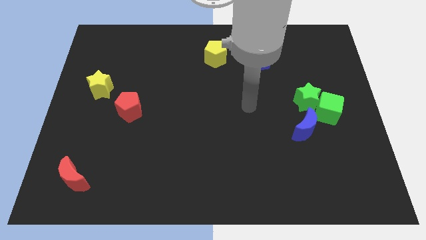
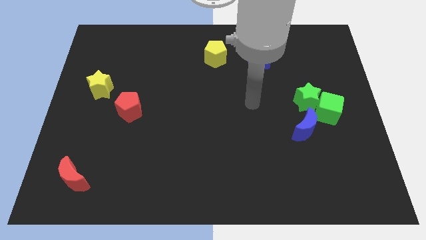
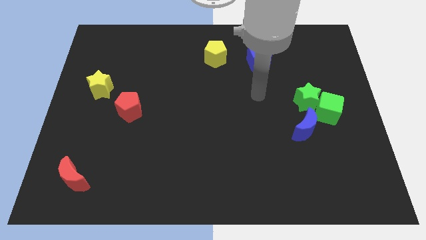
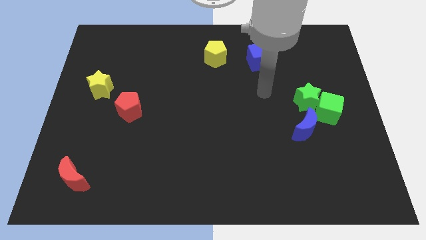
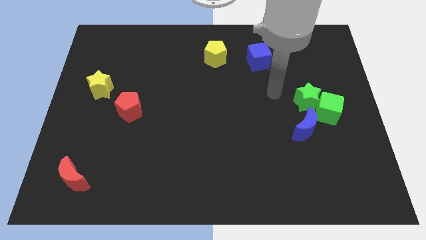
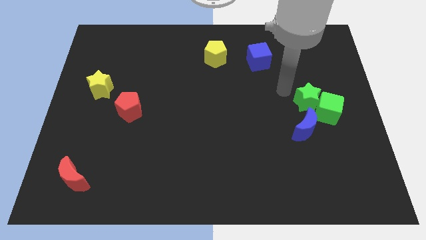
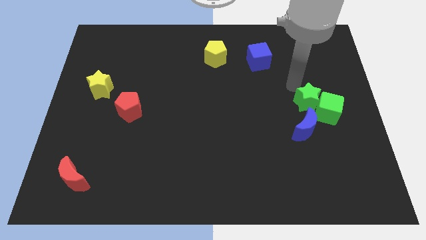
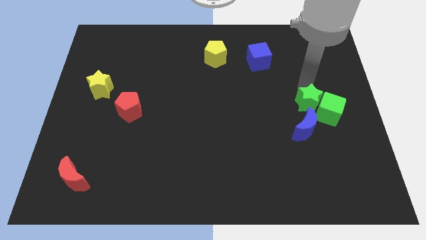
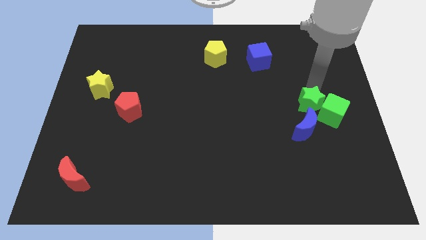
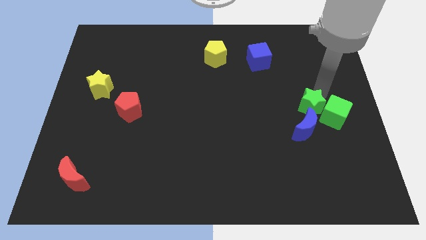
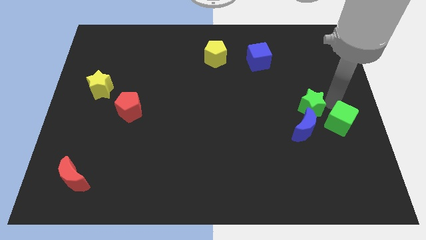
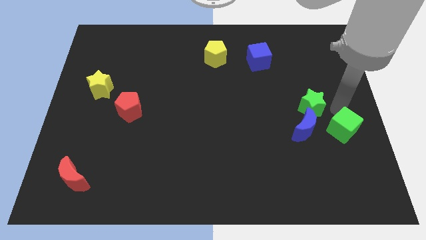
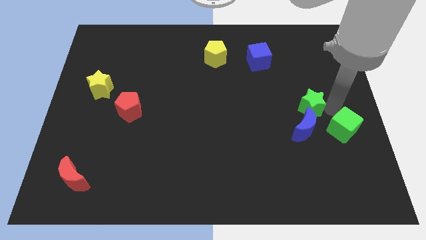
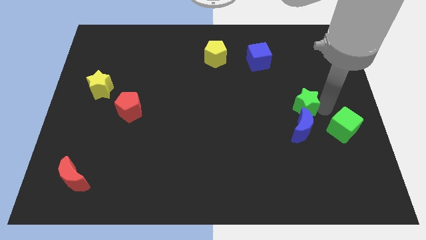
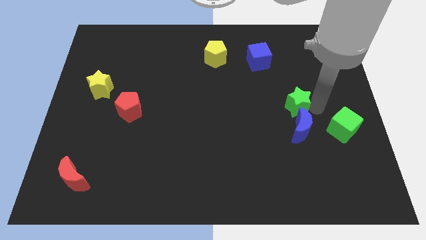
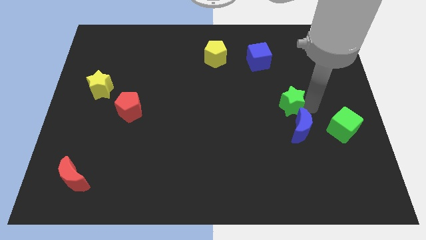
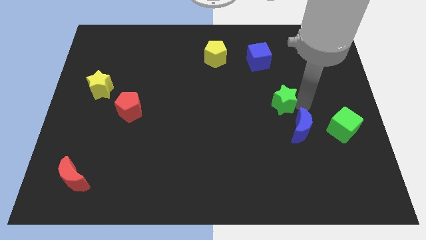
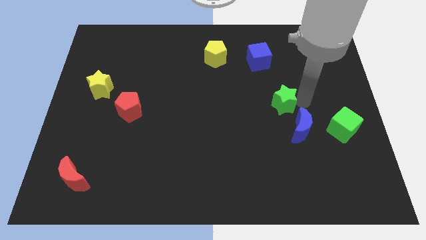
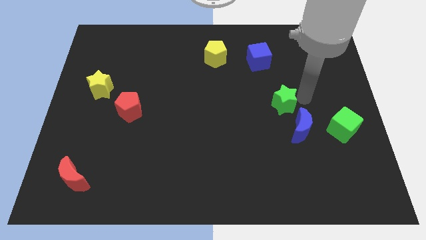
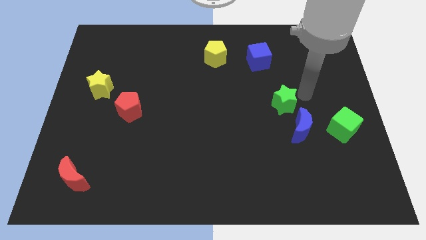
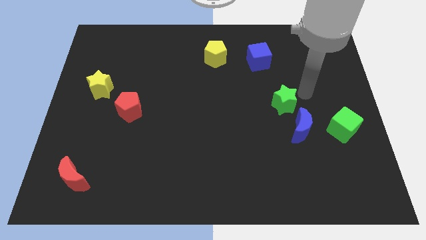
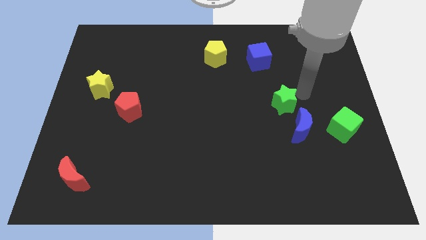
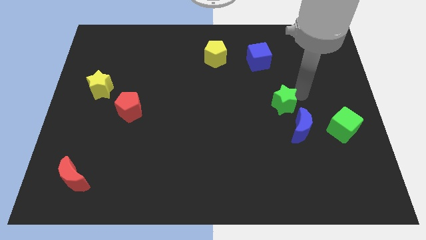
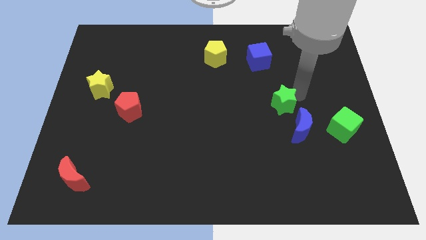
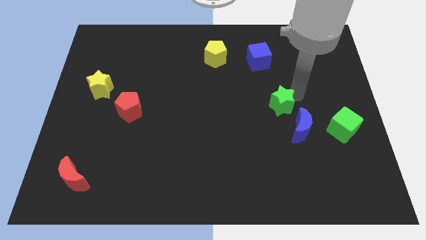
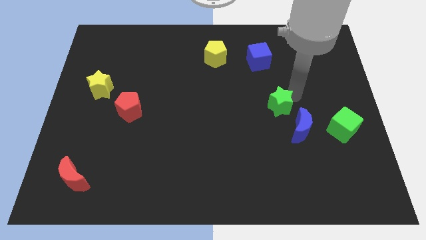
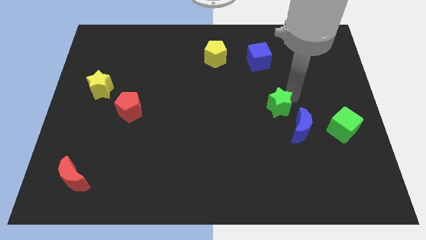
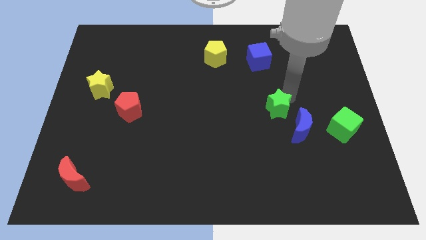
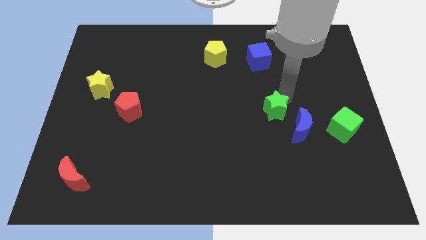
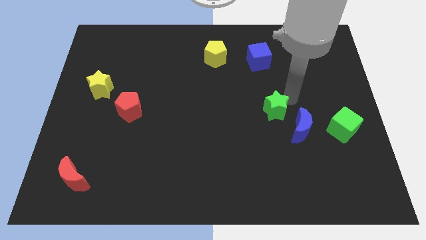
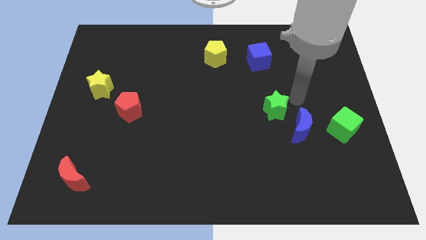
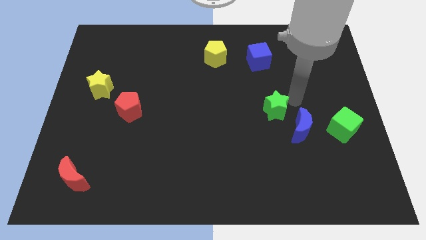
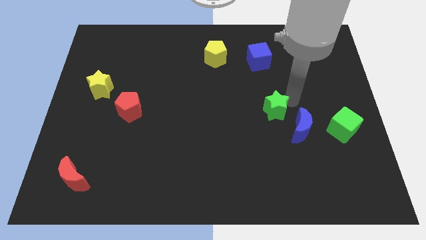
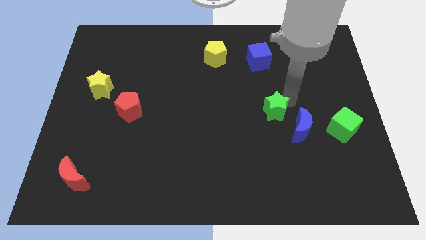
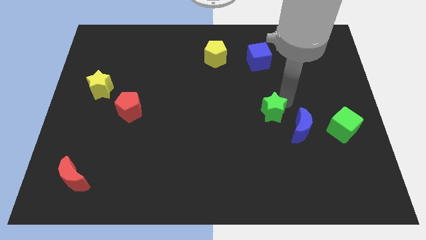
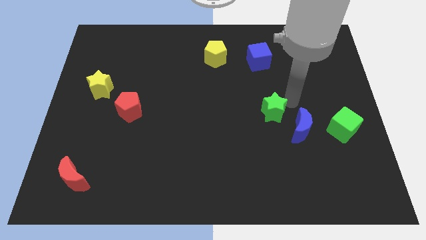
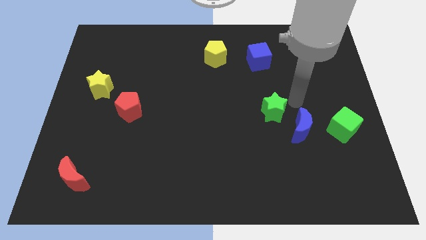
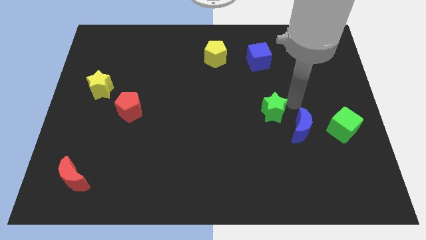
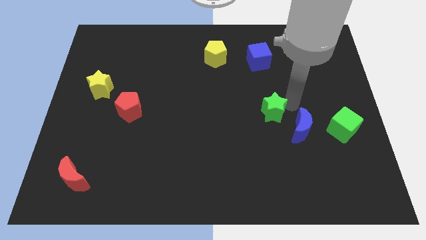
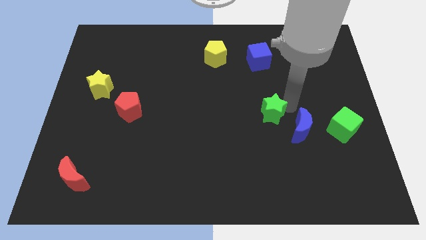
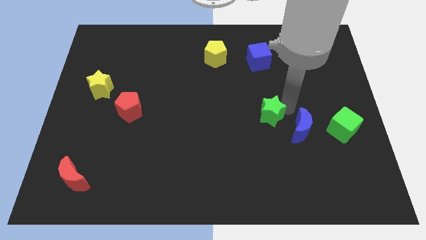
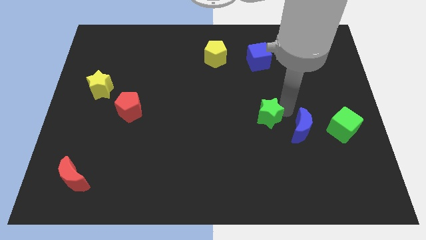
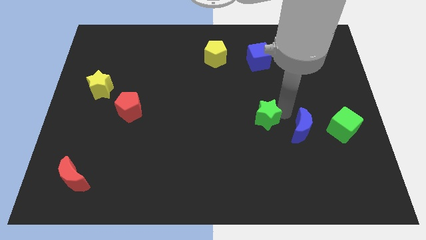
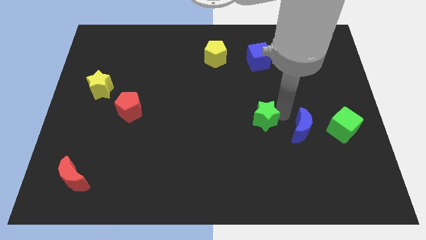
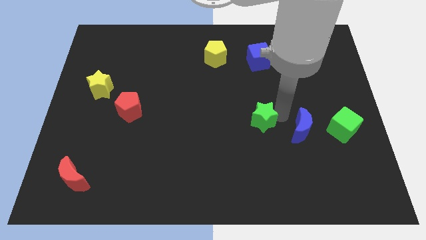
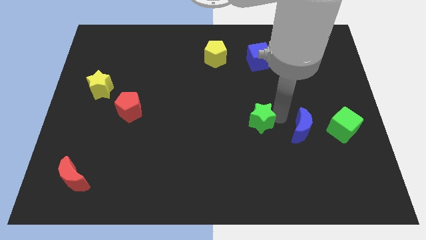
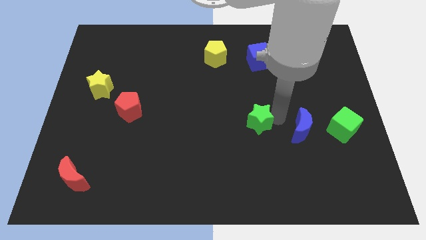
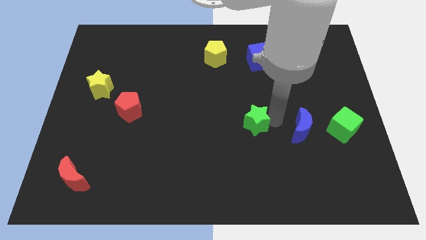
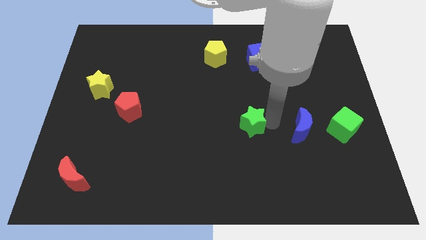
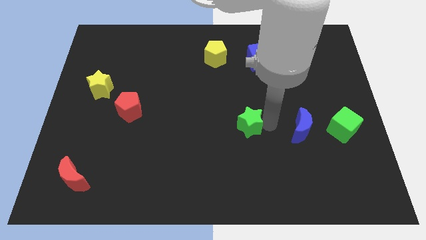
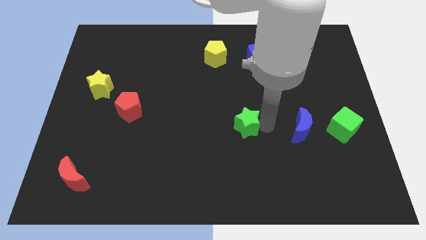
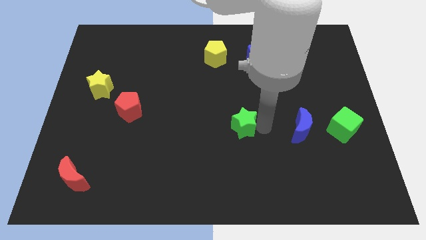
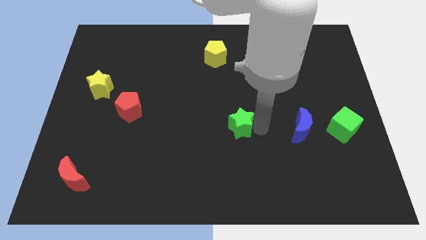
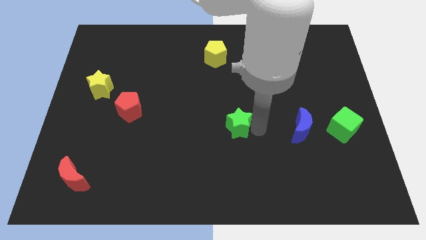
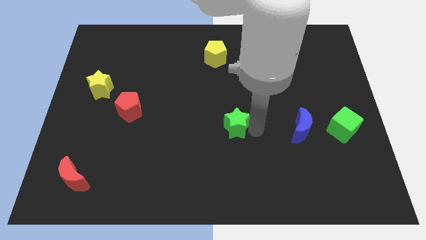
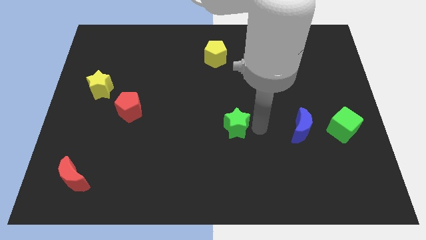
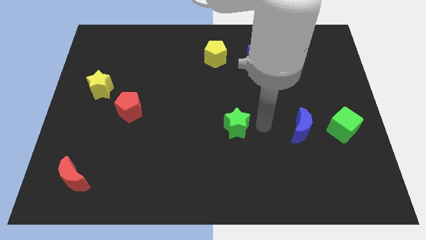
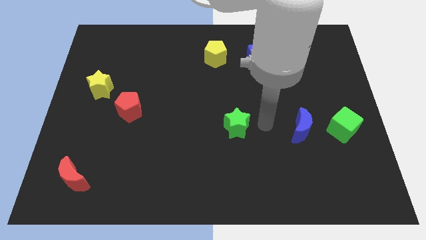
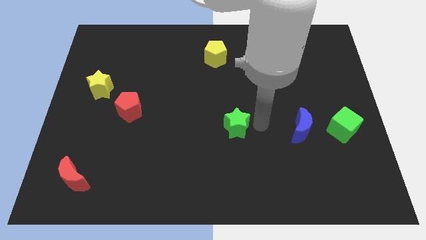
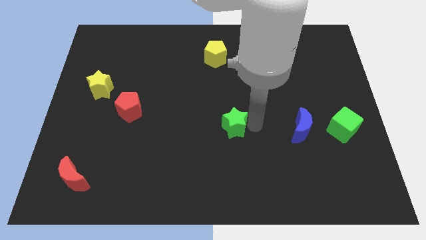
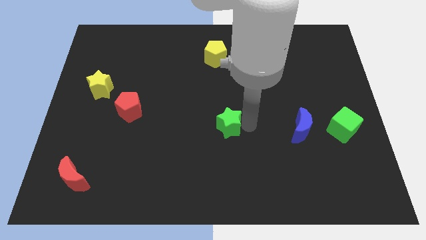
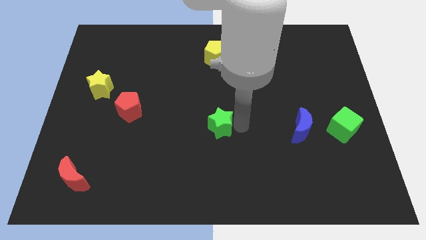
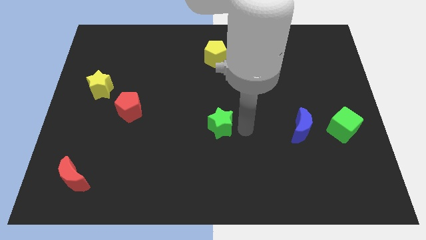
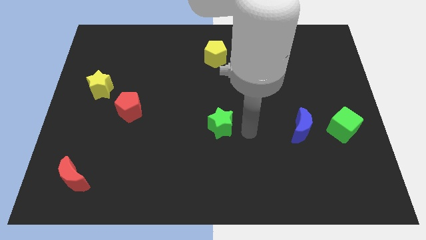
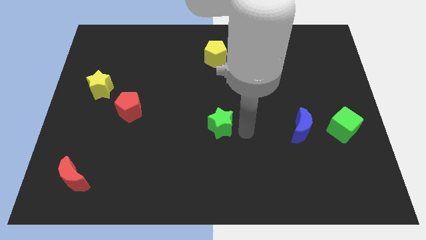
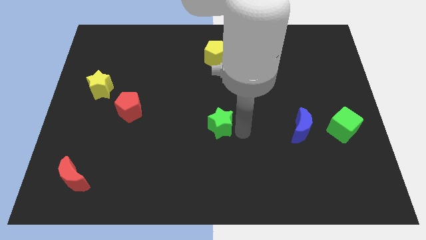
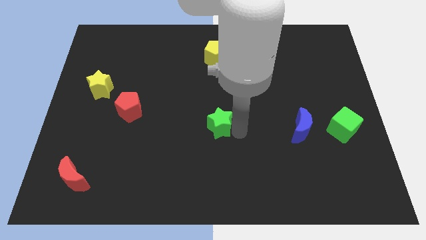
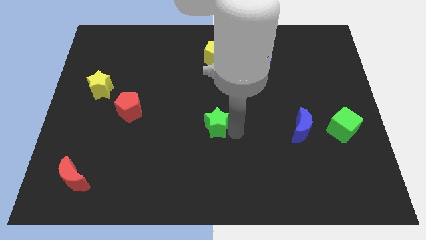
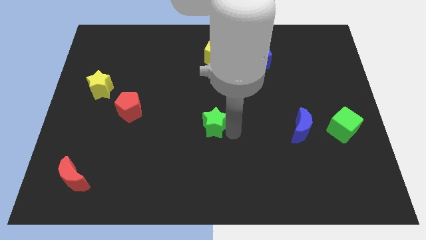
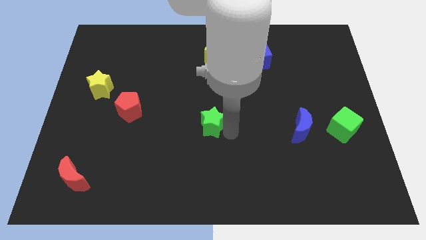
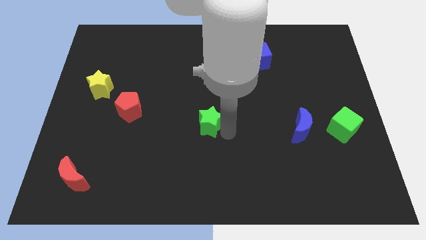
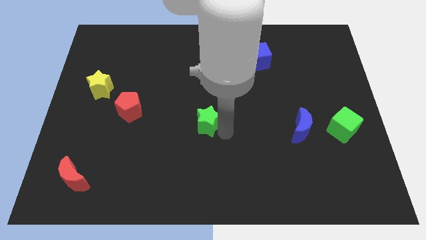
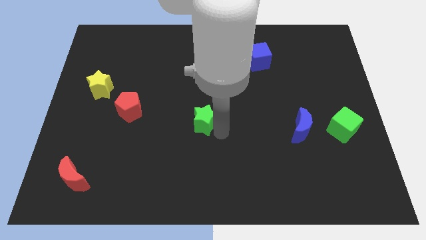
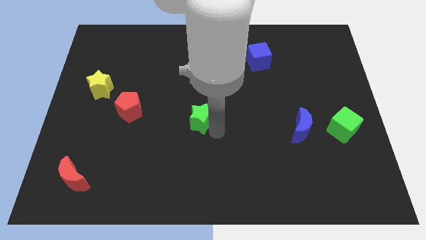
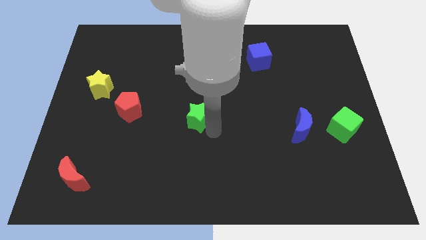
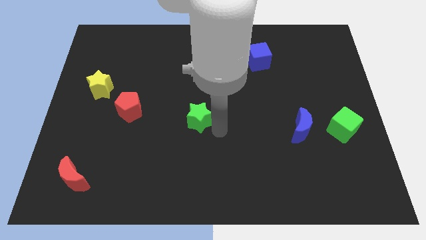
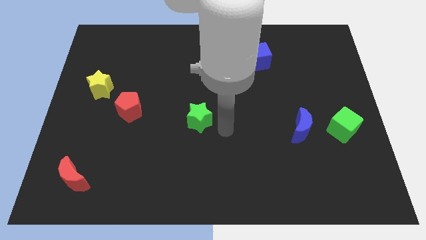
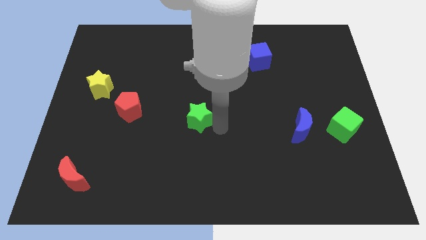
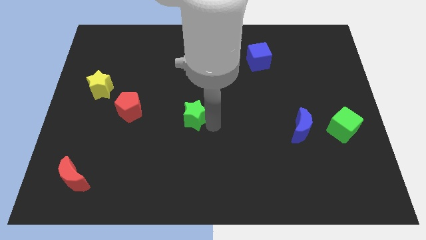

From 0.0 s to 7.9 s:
slide the green star to the right of the red pentagon
